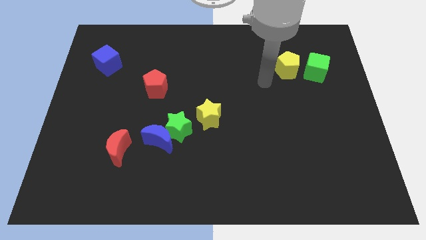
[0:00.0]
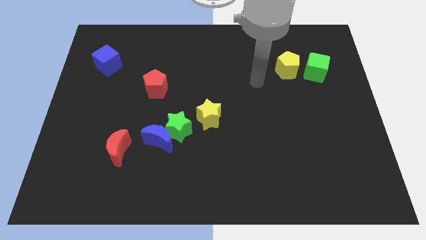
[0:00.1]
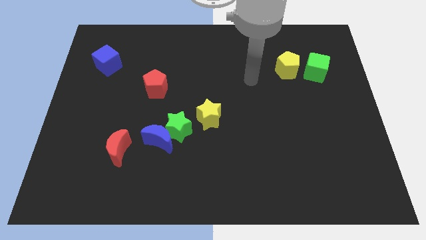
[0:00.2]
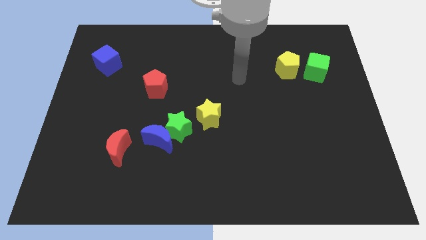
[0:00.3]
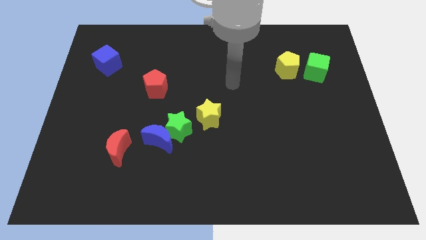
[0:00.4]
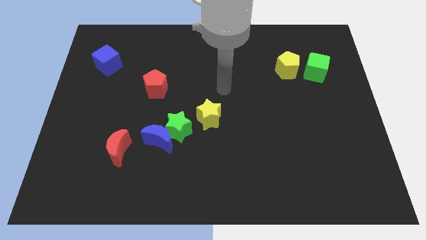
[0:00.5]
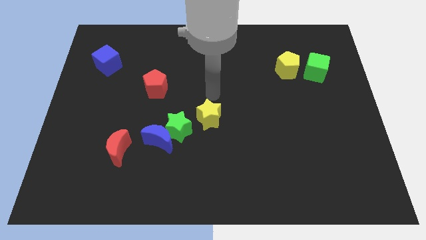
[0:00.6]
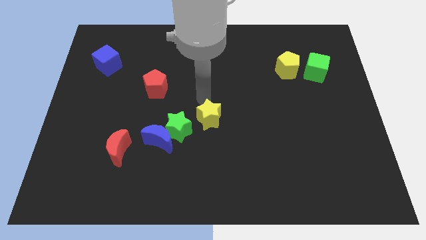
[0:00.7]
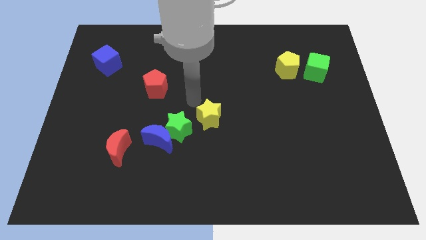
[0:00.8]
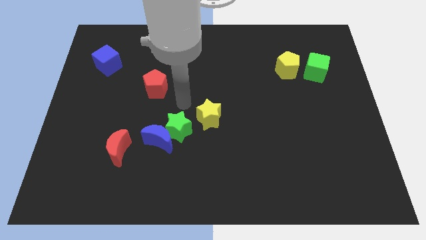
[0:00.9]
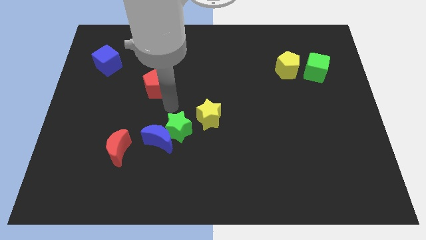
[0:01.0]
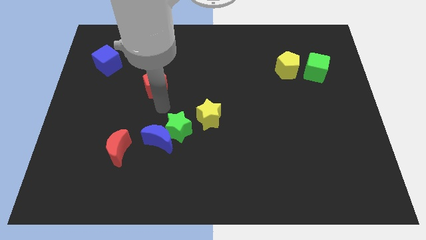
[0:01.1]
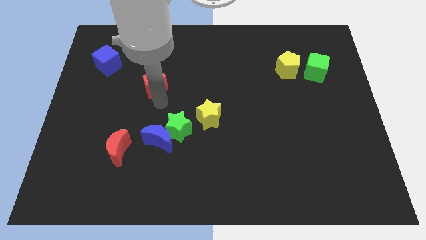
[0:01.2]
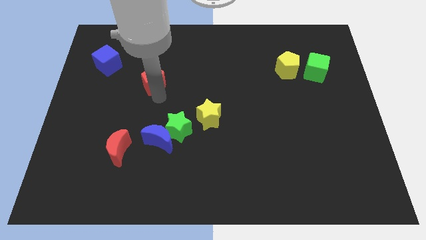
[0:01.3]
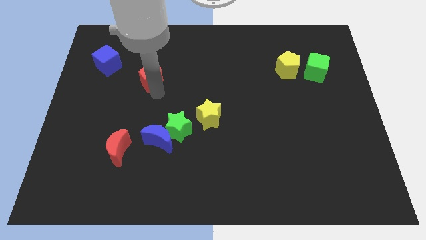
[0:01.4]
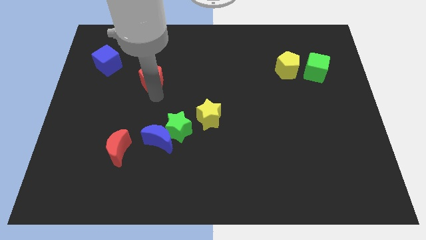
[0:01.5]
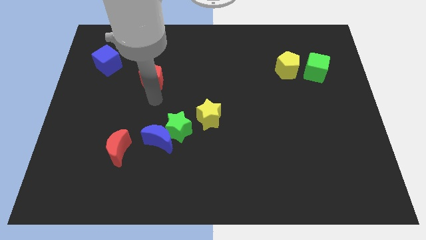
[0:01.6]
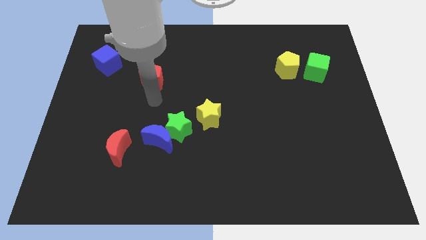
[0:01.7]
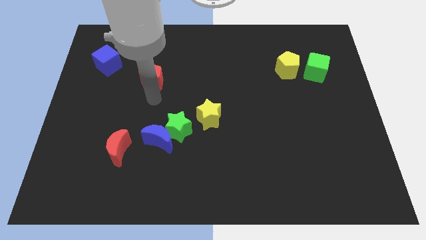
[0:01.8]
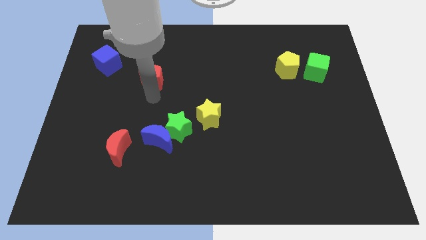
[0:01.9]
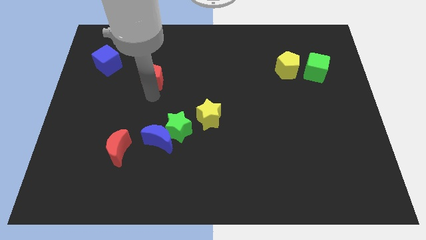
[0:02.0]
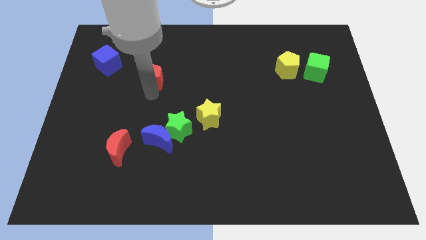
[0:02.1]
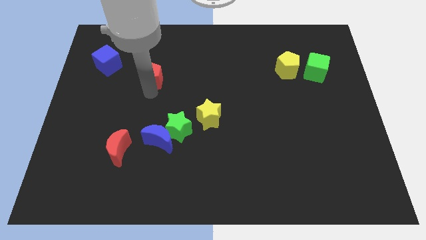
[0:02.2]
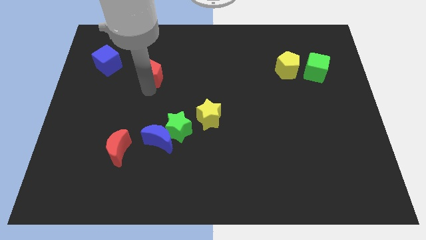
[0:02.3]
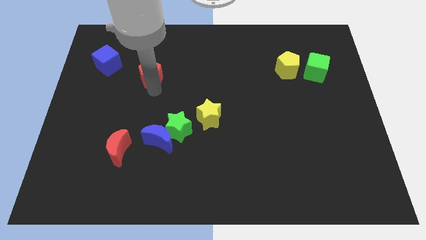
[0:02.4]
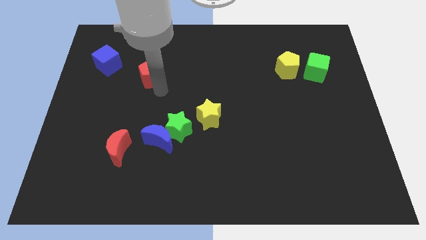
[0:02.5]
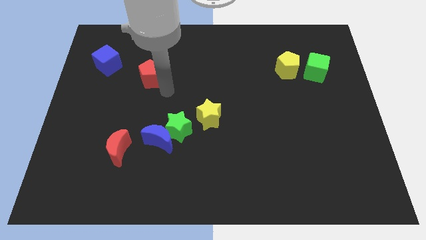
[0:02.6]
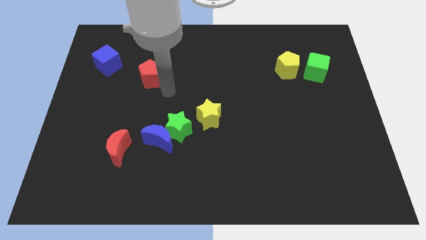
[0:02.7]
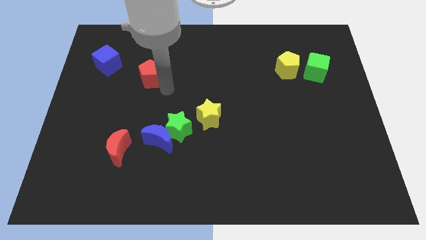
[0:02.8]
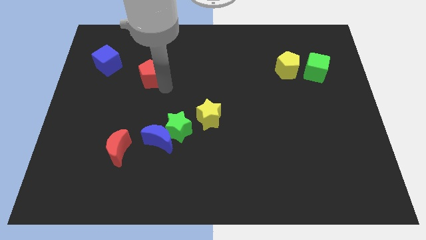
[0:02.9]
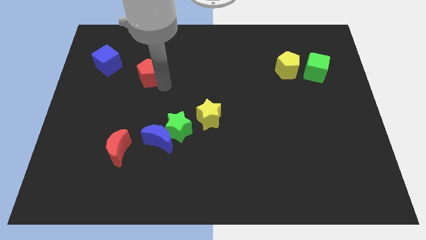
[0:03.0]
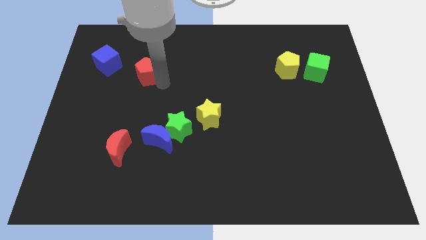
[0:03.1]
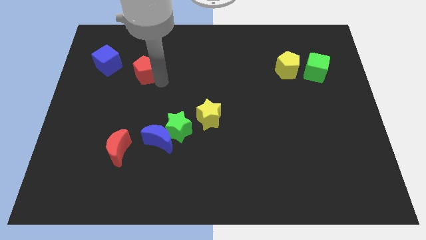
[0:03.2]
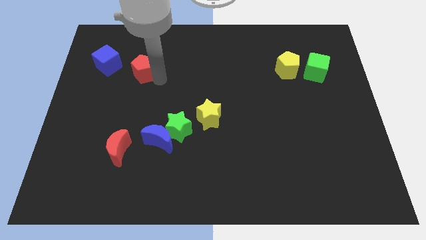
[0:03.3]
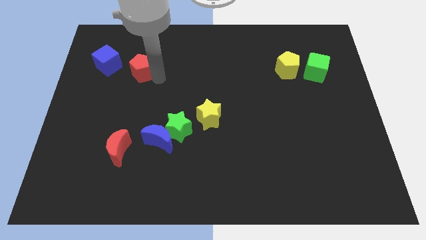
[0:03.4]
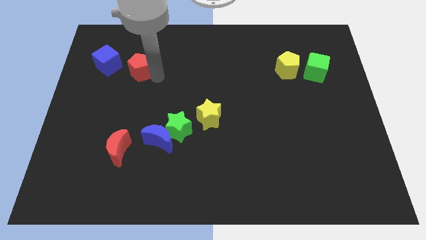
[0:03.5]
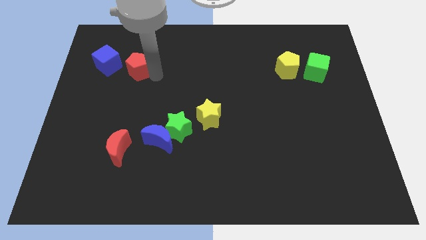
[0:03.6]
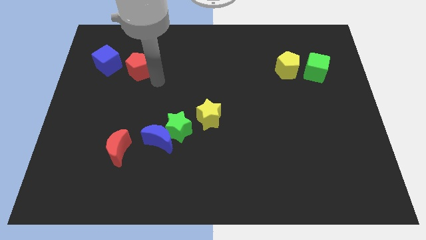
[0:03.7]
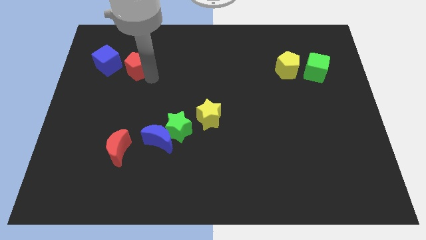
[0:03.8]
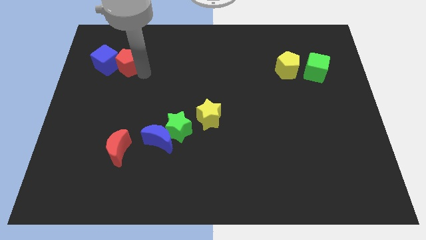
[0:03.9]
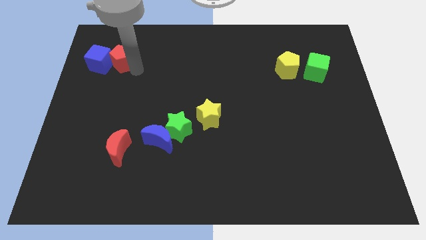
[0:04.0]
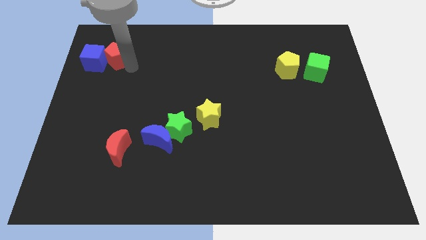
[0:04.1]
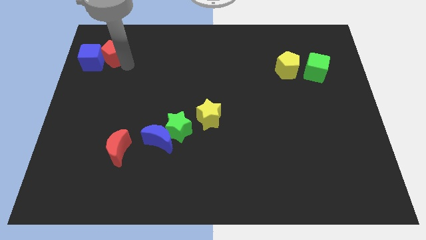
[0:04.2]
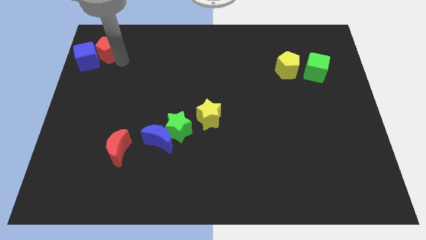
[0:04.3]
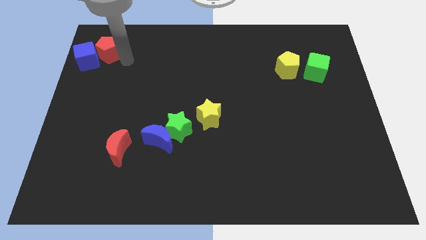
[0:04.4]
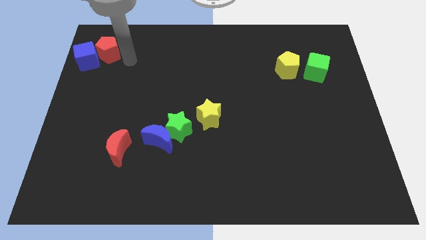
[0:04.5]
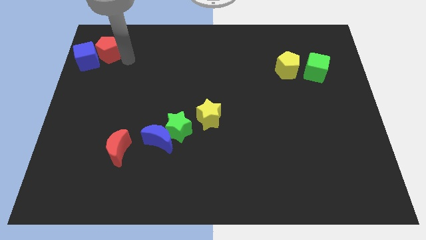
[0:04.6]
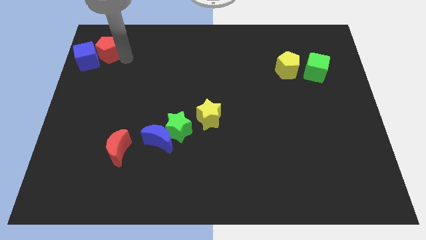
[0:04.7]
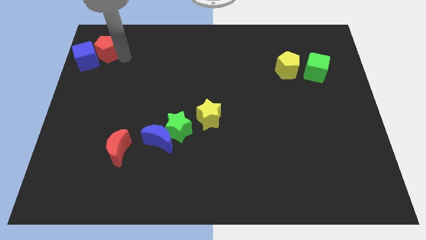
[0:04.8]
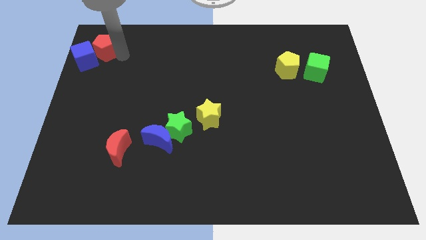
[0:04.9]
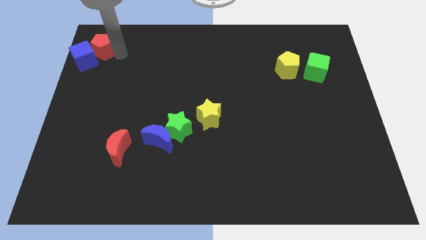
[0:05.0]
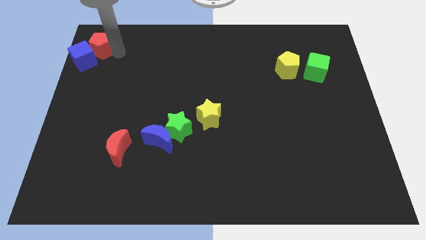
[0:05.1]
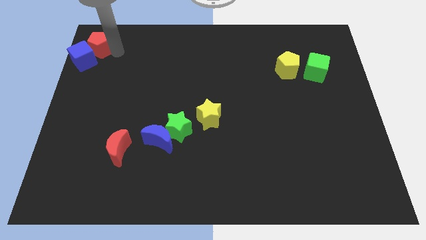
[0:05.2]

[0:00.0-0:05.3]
slide the red pentagon to the upper left corner
